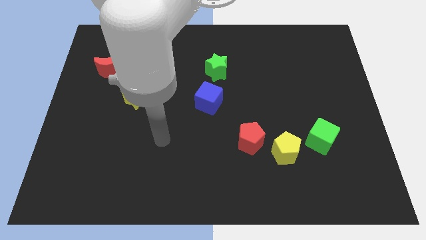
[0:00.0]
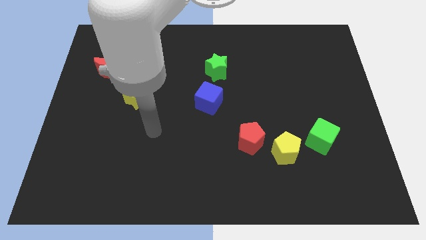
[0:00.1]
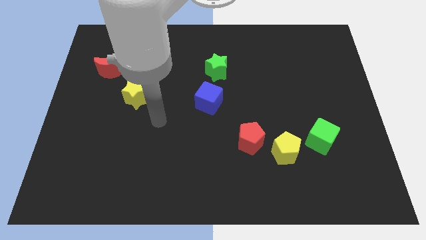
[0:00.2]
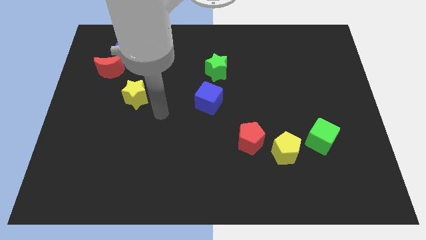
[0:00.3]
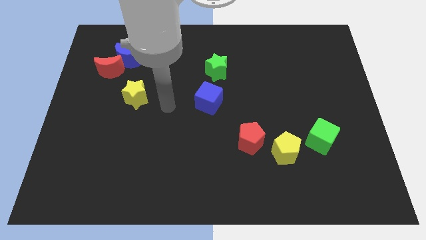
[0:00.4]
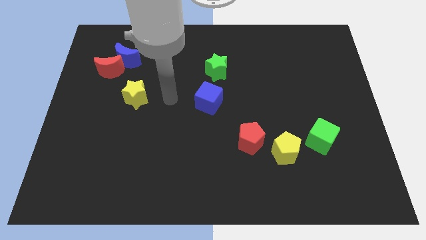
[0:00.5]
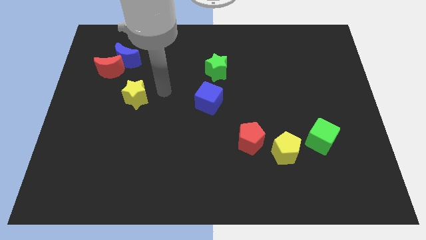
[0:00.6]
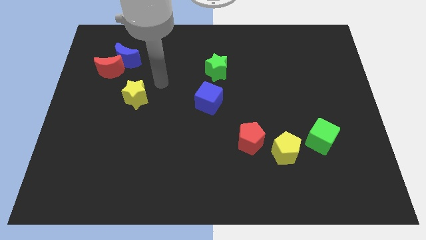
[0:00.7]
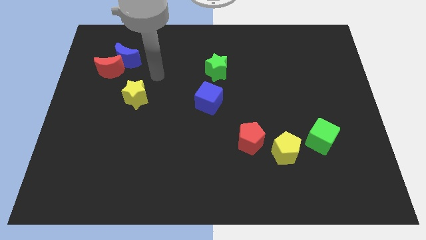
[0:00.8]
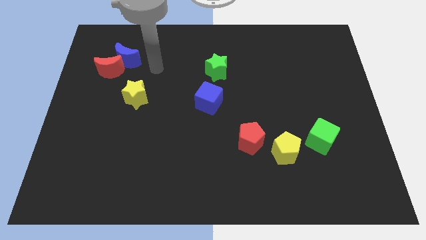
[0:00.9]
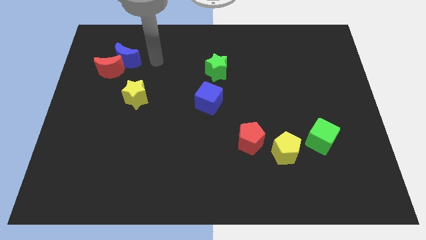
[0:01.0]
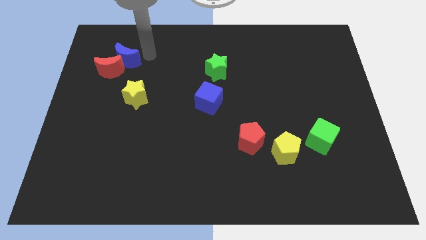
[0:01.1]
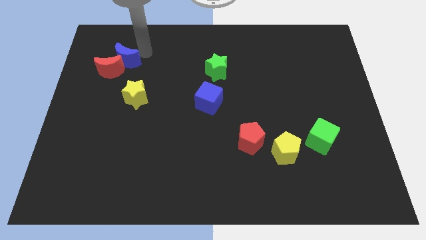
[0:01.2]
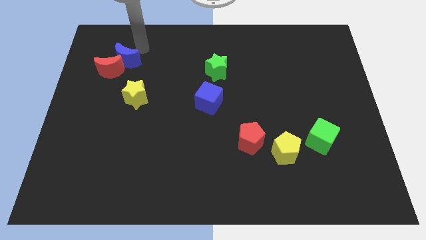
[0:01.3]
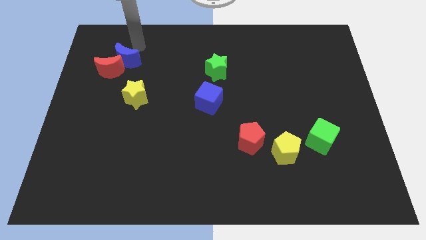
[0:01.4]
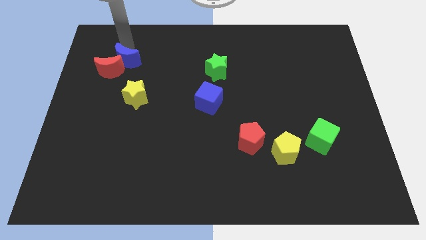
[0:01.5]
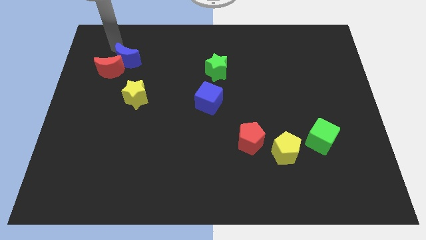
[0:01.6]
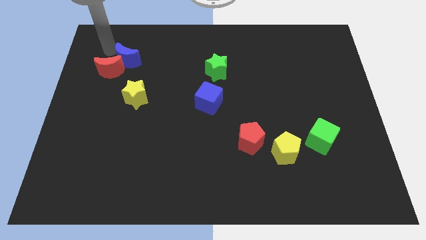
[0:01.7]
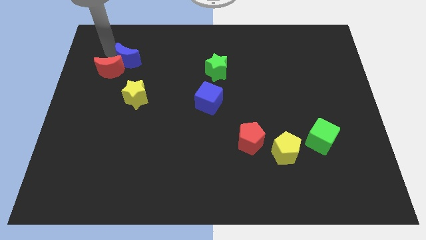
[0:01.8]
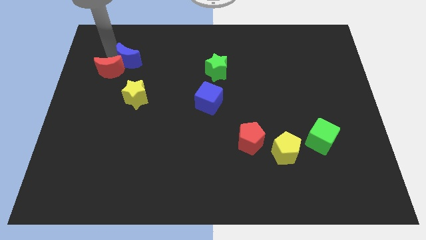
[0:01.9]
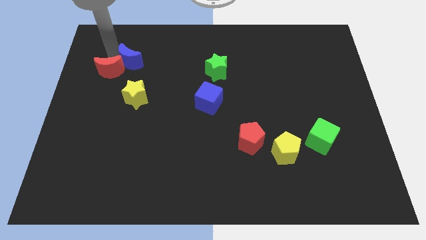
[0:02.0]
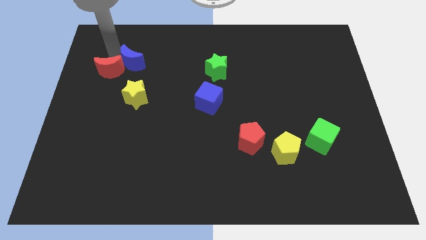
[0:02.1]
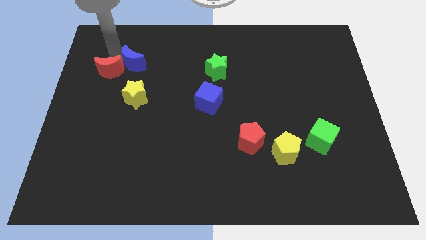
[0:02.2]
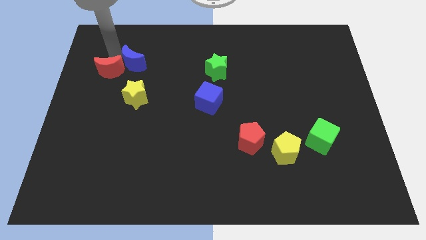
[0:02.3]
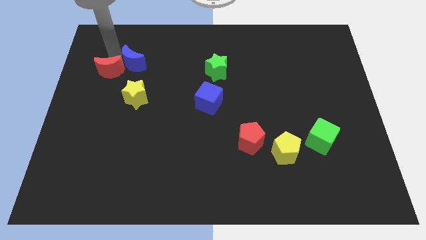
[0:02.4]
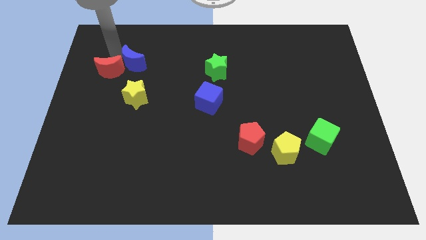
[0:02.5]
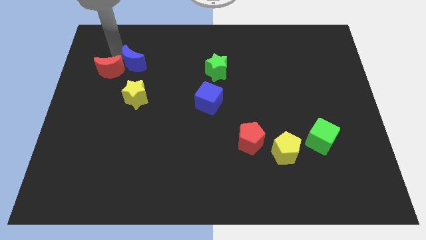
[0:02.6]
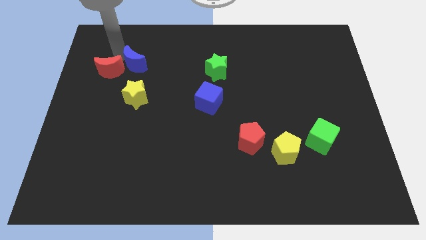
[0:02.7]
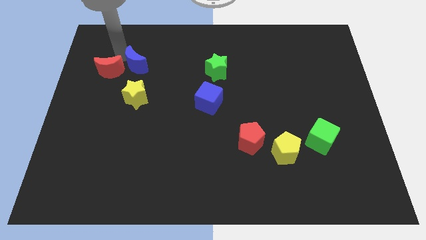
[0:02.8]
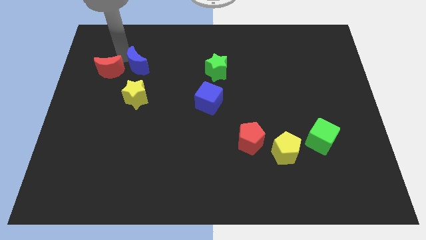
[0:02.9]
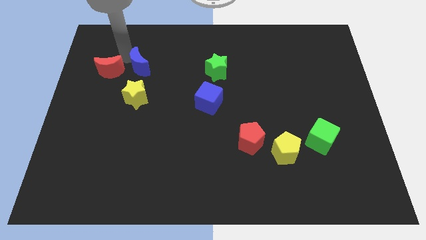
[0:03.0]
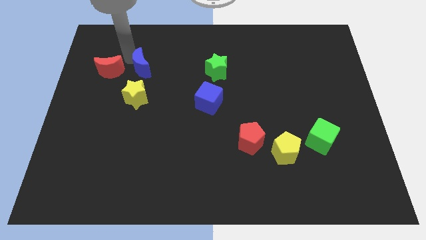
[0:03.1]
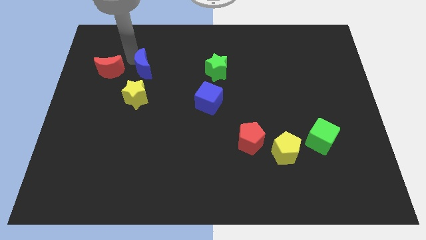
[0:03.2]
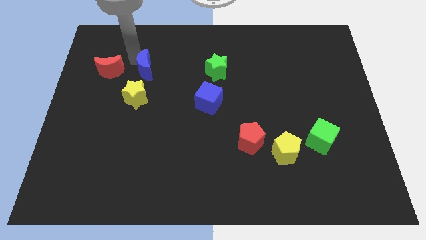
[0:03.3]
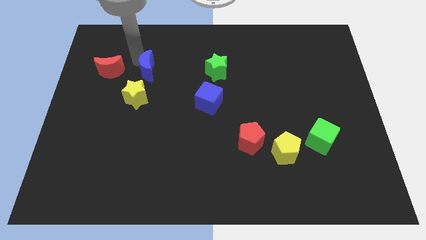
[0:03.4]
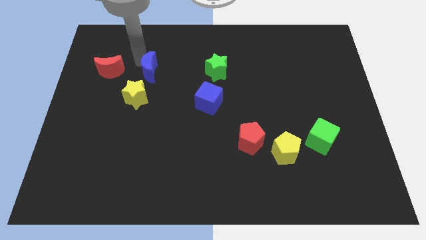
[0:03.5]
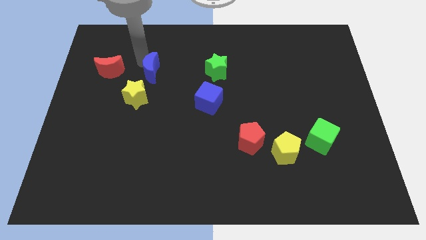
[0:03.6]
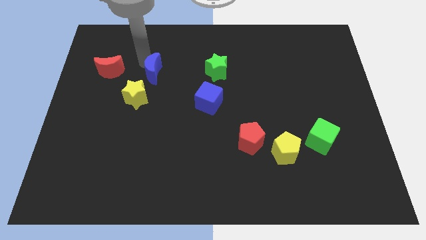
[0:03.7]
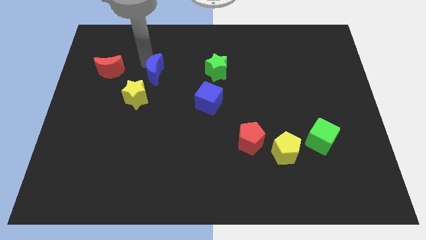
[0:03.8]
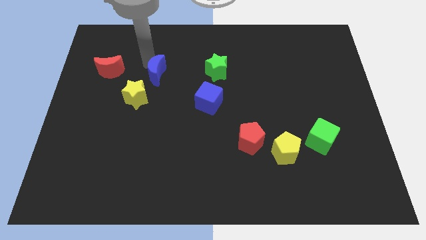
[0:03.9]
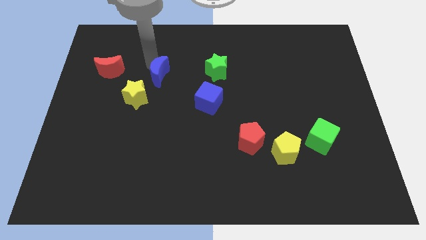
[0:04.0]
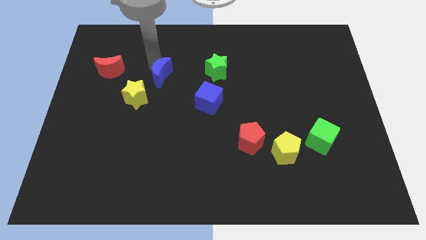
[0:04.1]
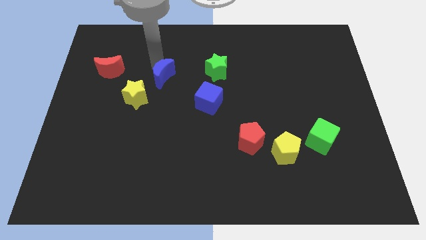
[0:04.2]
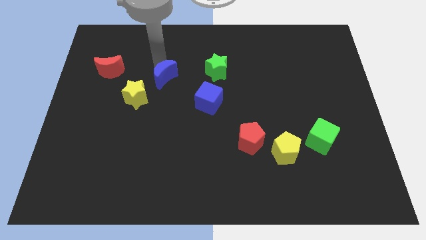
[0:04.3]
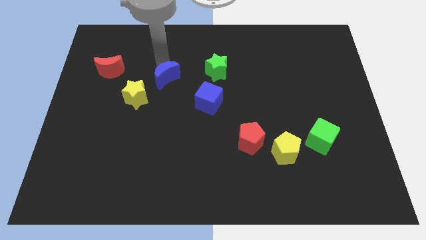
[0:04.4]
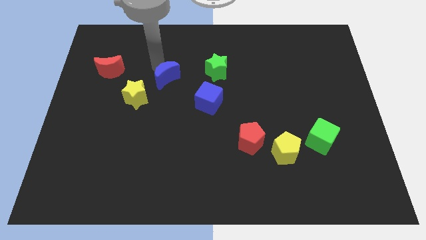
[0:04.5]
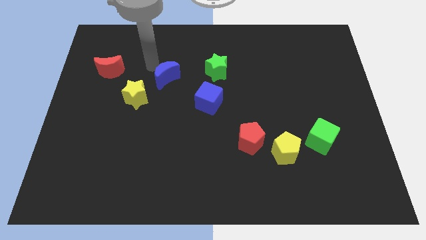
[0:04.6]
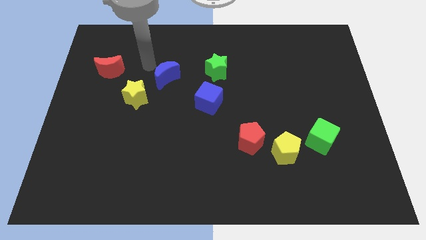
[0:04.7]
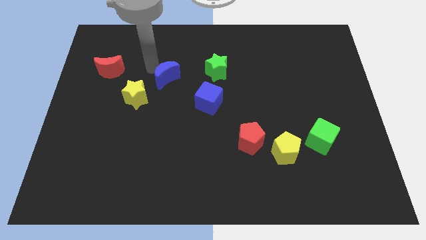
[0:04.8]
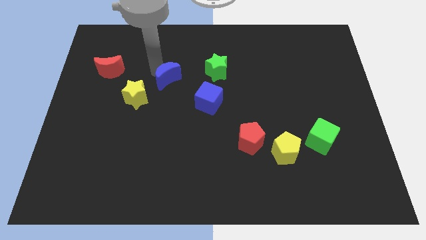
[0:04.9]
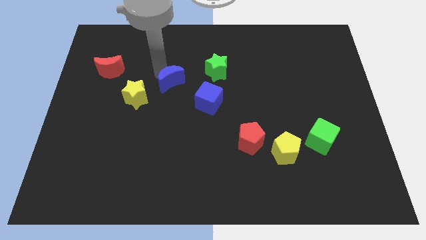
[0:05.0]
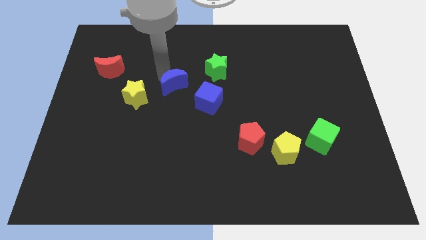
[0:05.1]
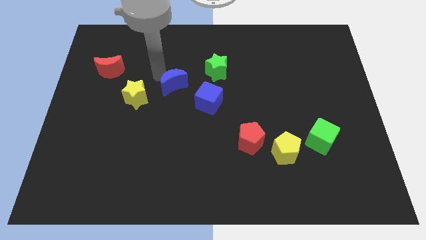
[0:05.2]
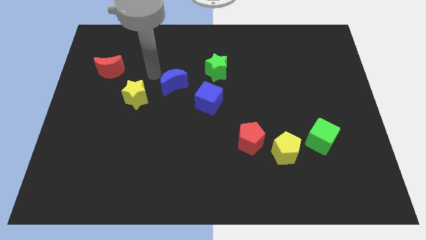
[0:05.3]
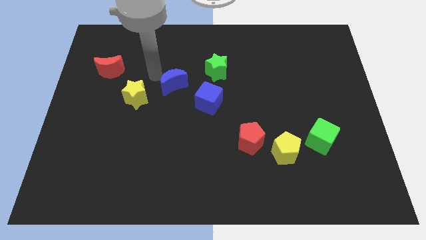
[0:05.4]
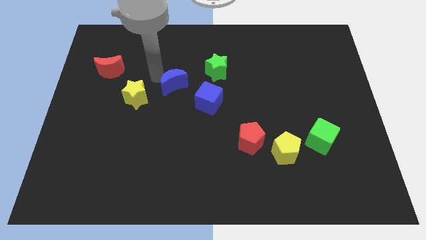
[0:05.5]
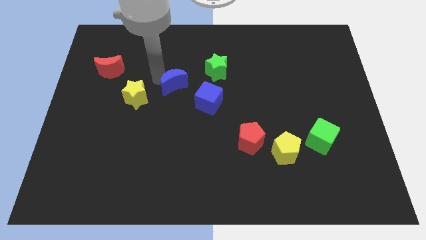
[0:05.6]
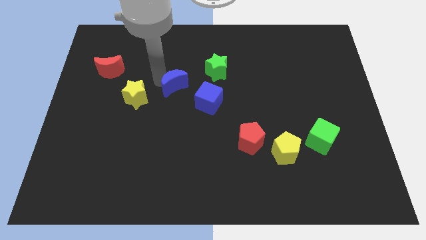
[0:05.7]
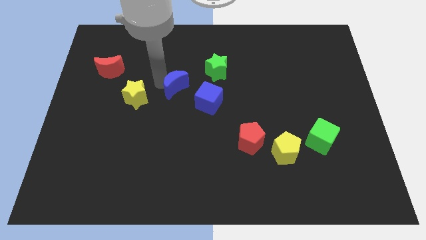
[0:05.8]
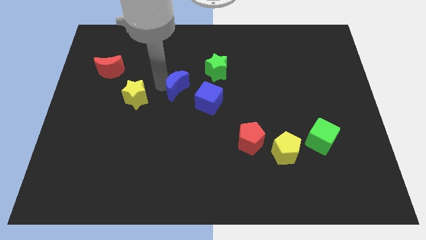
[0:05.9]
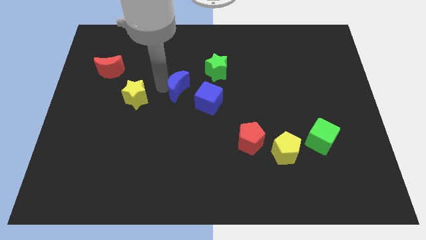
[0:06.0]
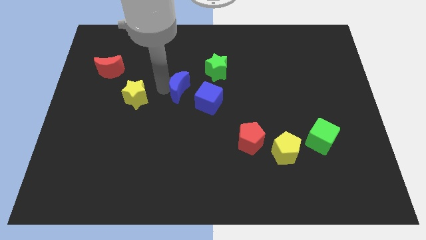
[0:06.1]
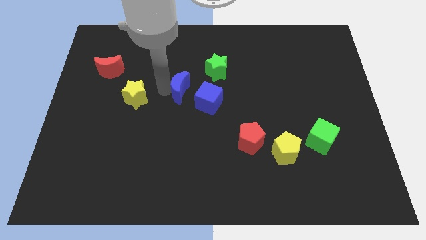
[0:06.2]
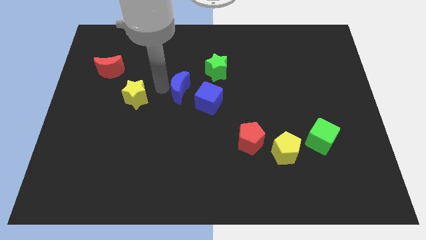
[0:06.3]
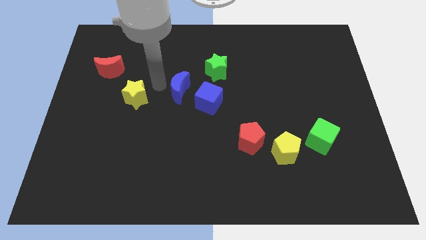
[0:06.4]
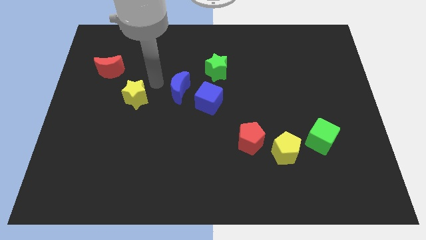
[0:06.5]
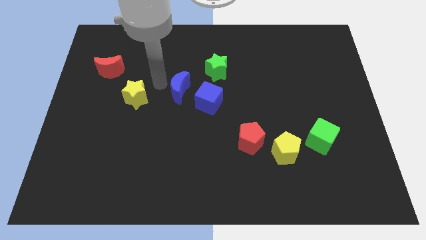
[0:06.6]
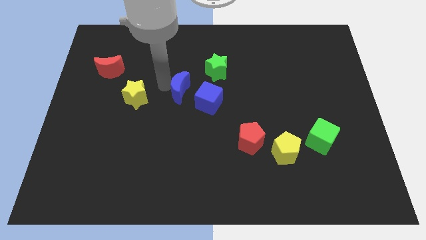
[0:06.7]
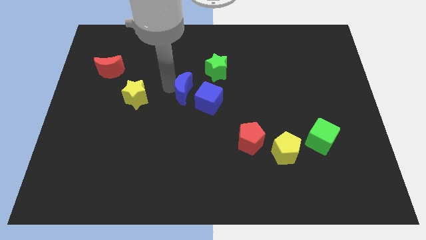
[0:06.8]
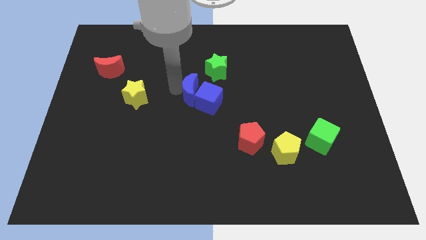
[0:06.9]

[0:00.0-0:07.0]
slide the blue moon next to the blue cube

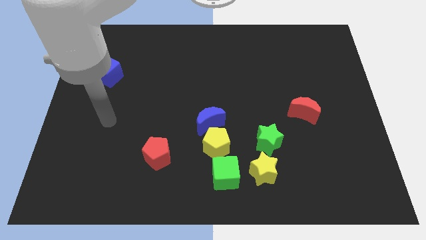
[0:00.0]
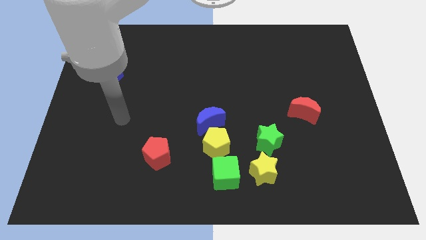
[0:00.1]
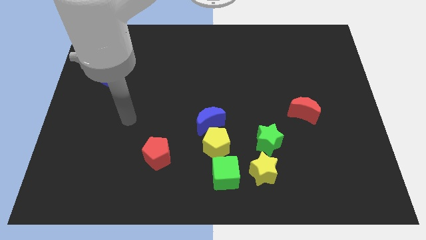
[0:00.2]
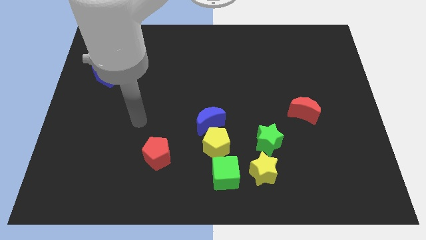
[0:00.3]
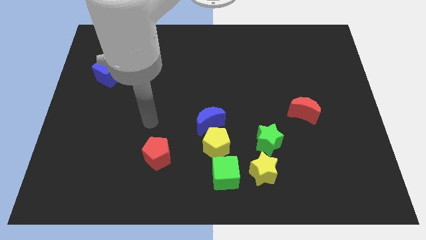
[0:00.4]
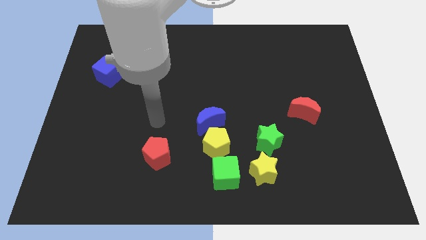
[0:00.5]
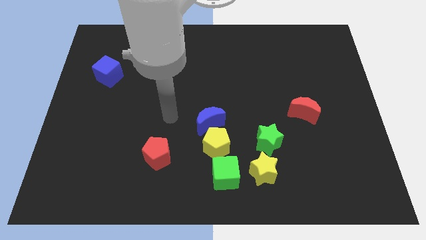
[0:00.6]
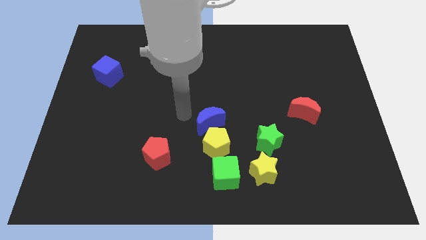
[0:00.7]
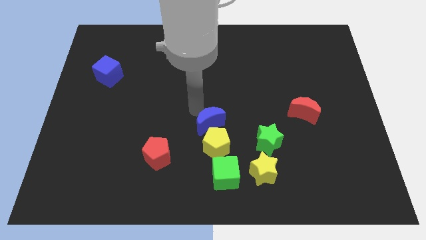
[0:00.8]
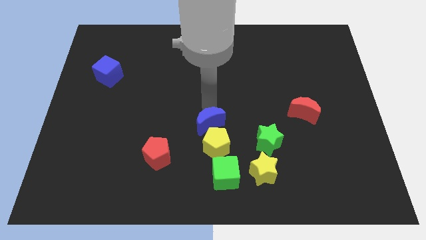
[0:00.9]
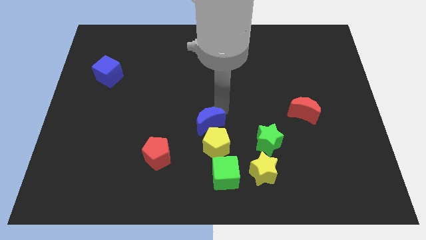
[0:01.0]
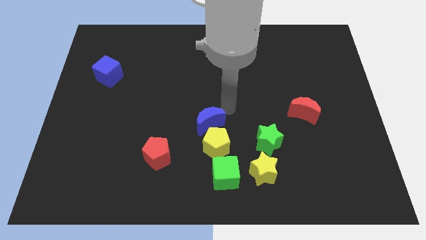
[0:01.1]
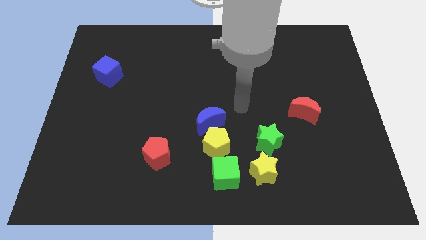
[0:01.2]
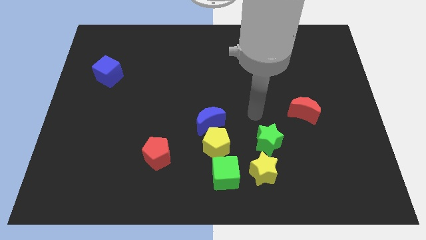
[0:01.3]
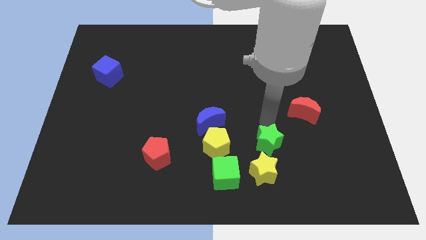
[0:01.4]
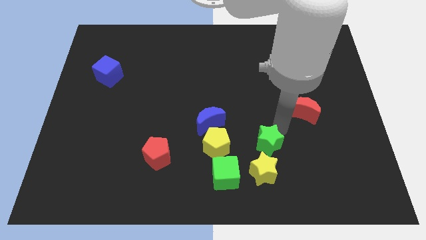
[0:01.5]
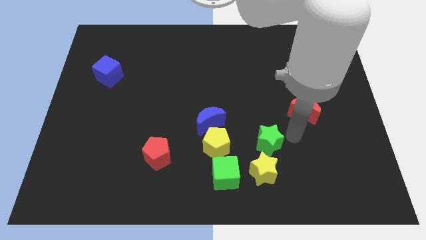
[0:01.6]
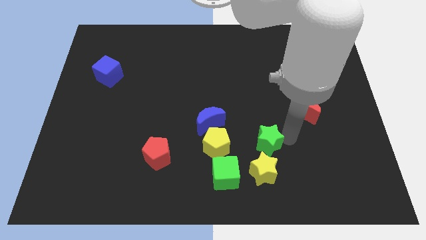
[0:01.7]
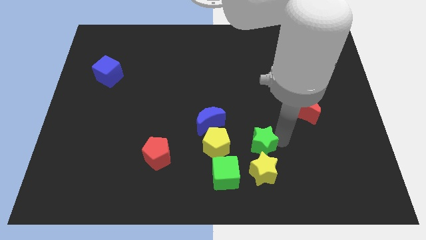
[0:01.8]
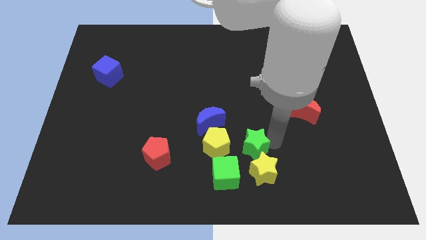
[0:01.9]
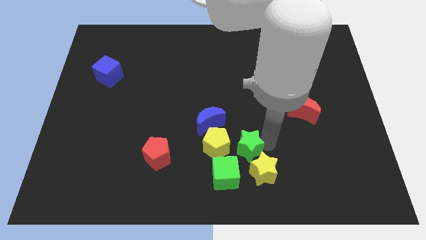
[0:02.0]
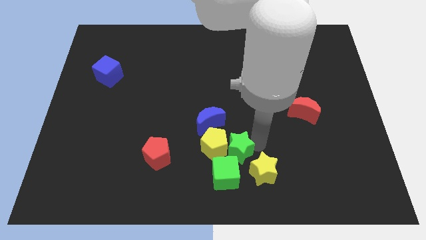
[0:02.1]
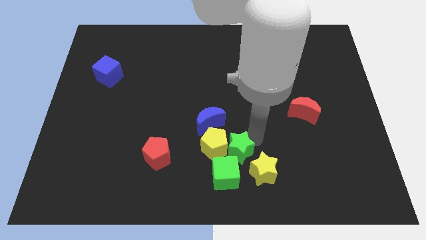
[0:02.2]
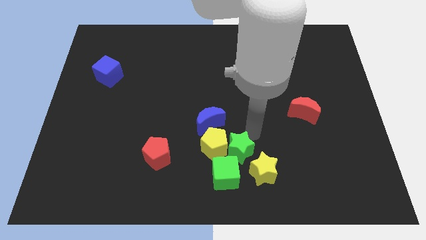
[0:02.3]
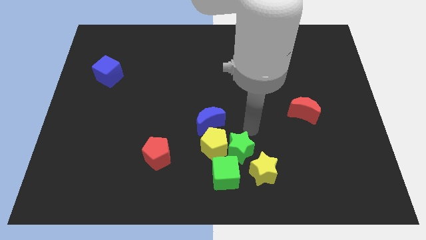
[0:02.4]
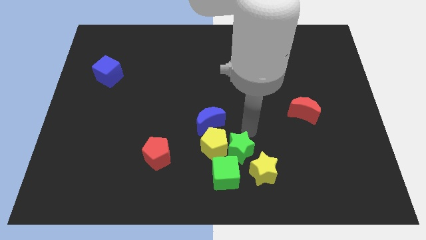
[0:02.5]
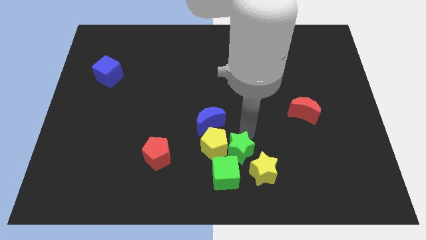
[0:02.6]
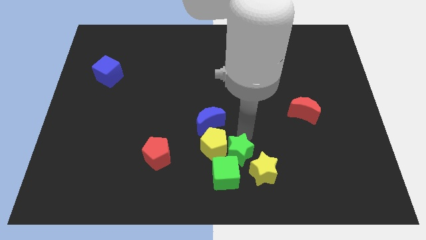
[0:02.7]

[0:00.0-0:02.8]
push the green star to the green cube
